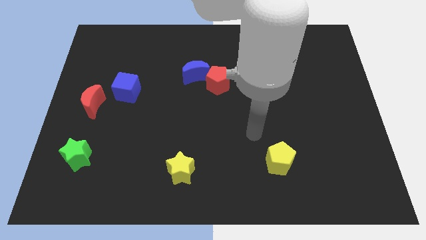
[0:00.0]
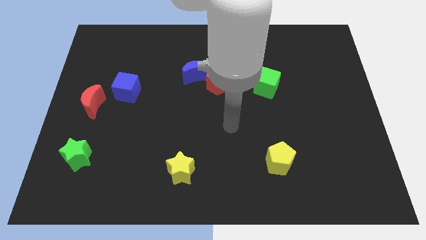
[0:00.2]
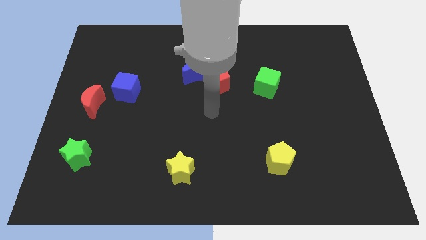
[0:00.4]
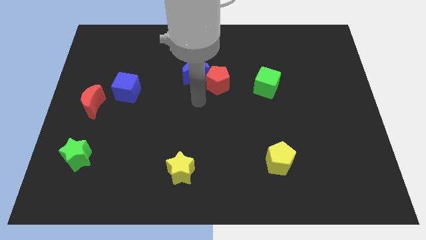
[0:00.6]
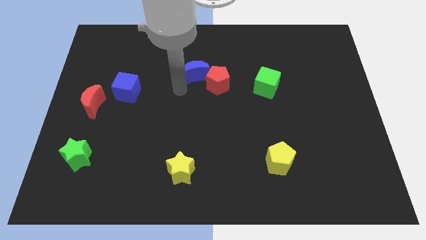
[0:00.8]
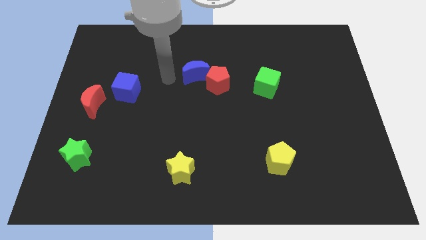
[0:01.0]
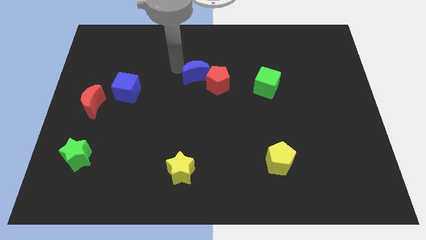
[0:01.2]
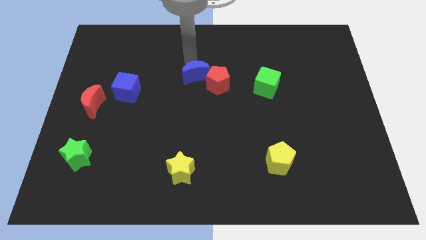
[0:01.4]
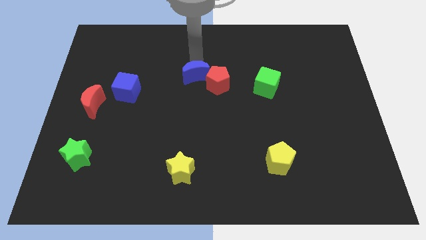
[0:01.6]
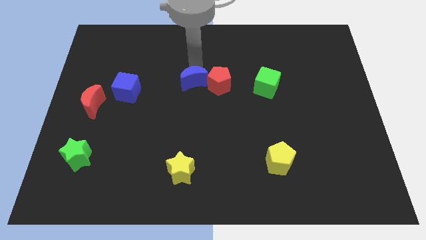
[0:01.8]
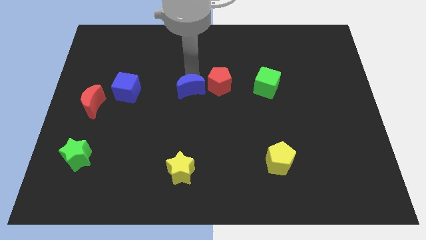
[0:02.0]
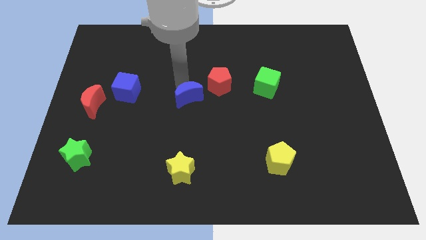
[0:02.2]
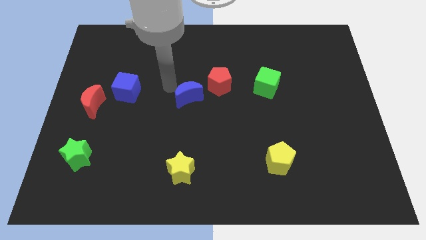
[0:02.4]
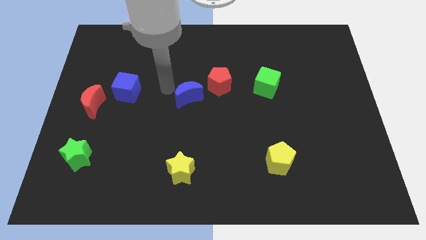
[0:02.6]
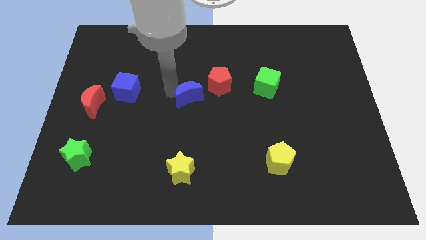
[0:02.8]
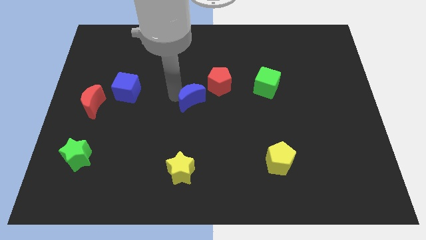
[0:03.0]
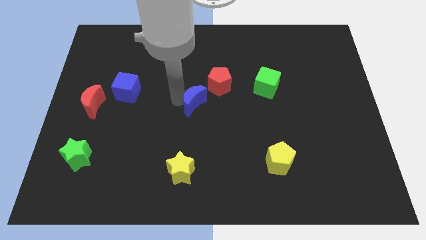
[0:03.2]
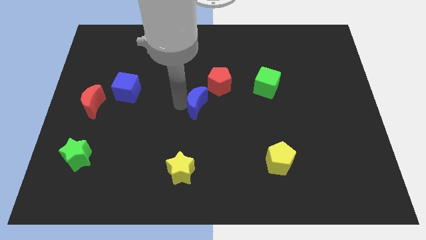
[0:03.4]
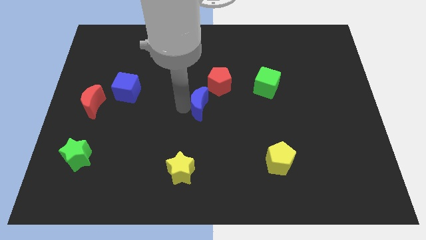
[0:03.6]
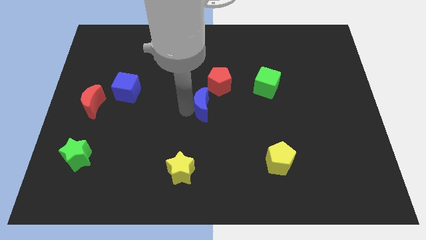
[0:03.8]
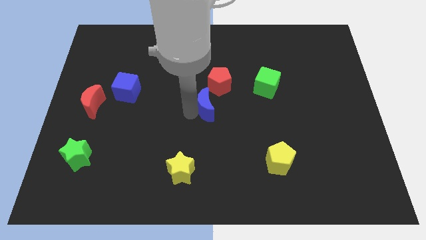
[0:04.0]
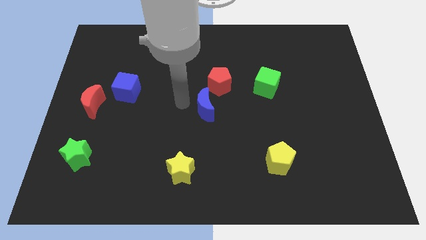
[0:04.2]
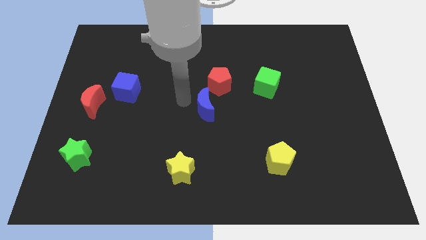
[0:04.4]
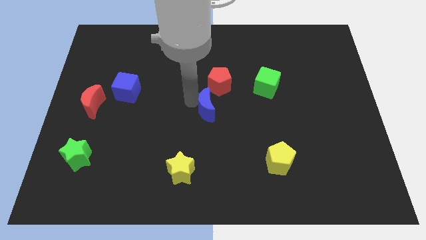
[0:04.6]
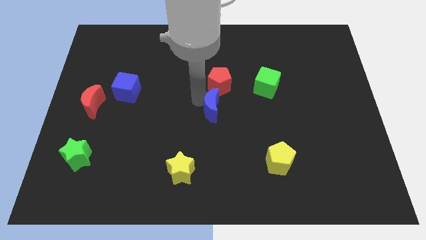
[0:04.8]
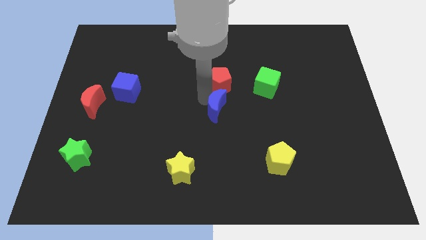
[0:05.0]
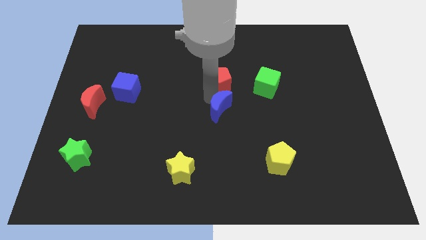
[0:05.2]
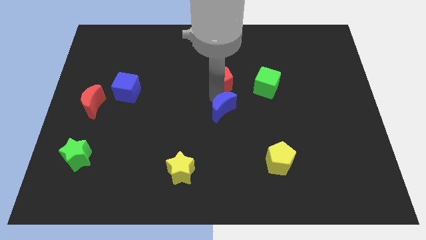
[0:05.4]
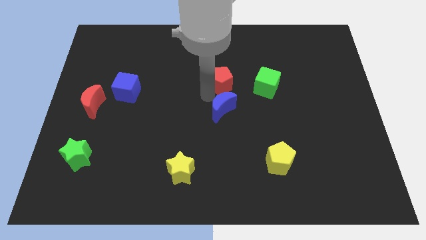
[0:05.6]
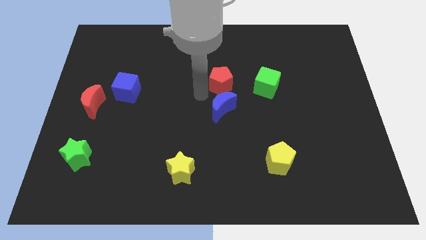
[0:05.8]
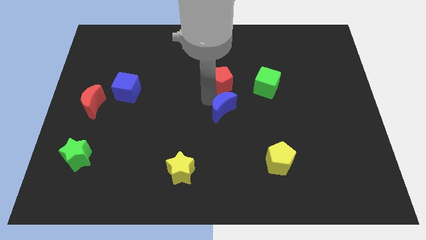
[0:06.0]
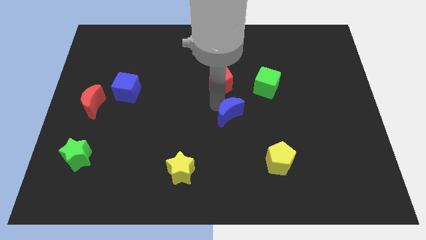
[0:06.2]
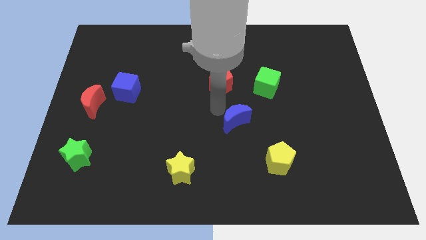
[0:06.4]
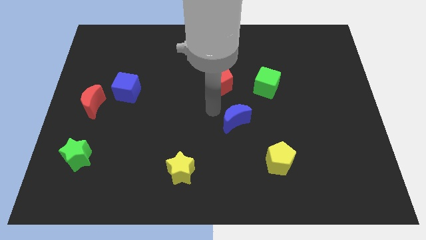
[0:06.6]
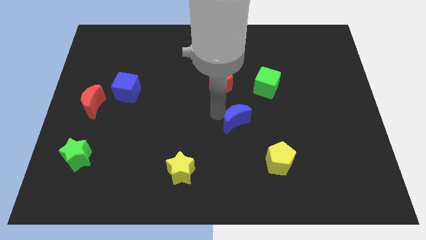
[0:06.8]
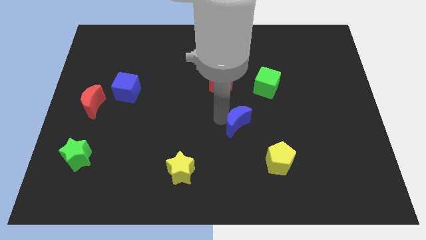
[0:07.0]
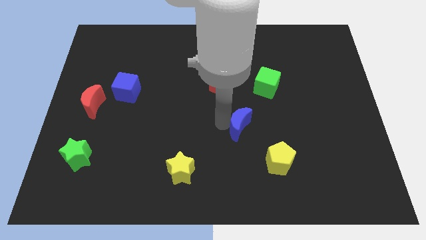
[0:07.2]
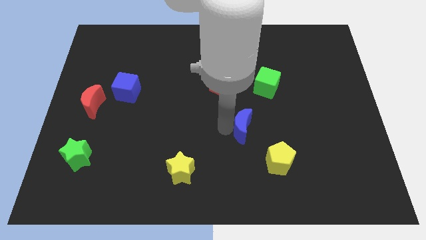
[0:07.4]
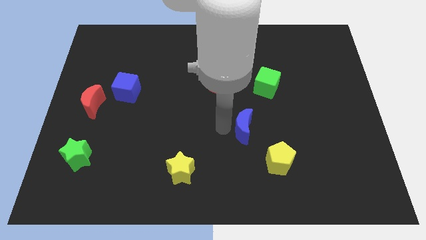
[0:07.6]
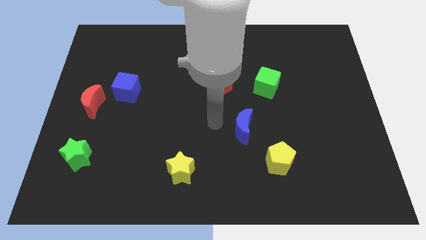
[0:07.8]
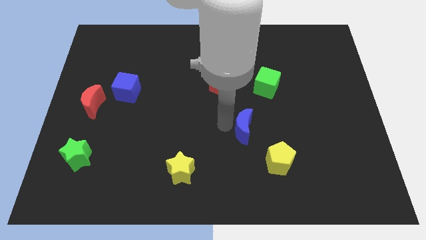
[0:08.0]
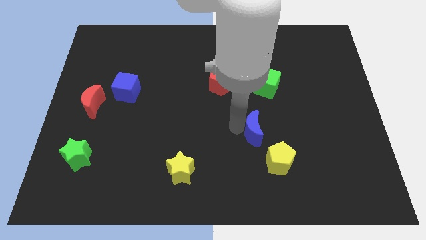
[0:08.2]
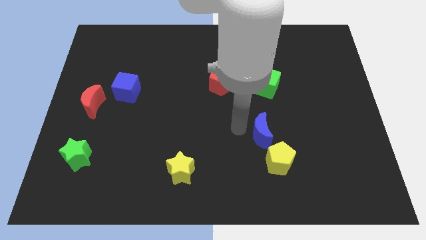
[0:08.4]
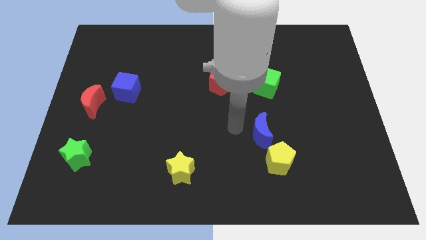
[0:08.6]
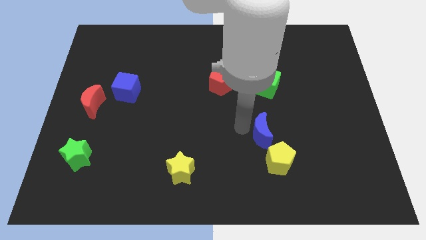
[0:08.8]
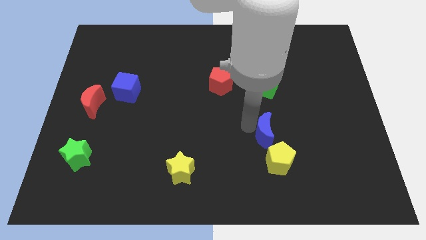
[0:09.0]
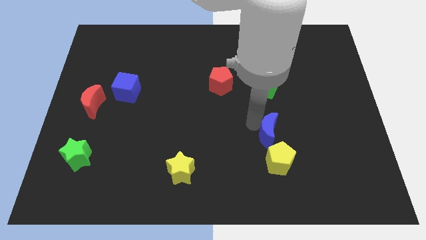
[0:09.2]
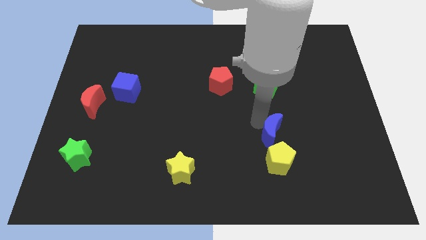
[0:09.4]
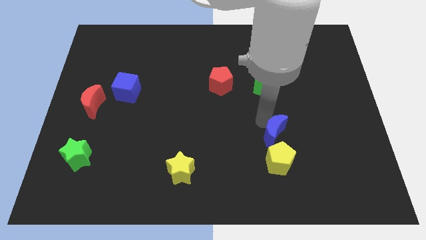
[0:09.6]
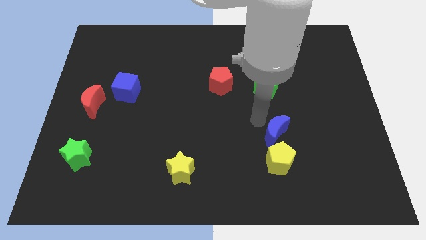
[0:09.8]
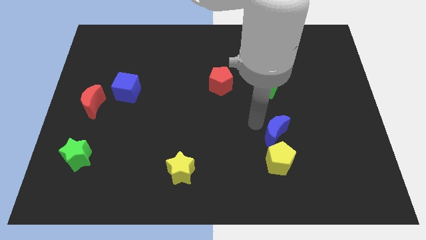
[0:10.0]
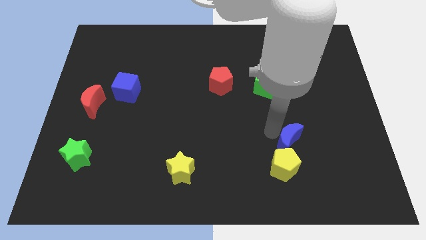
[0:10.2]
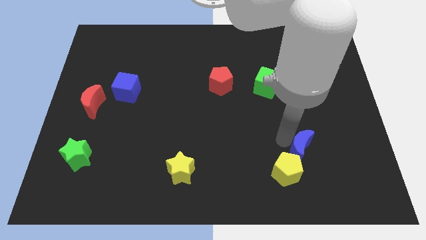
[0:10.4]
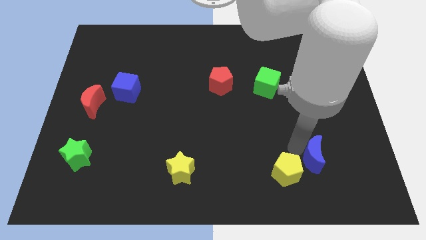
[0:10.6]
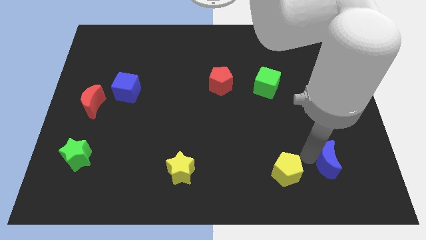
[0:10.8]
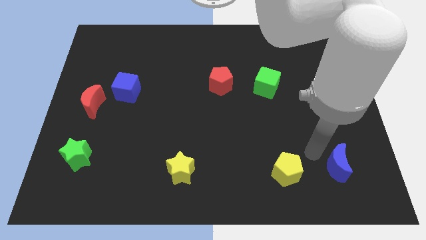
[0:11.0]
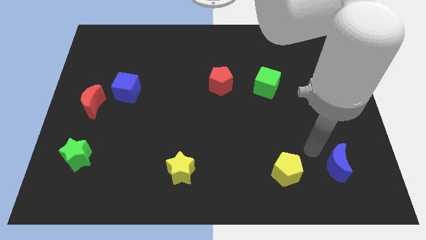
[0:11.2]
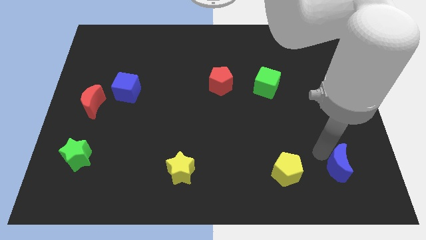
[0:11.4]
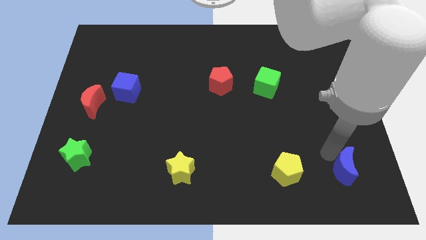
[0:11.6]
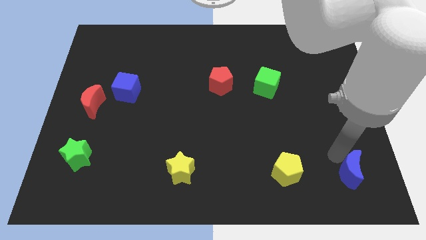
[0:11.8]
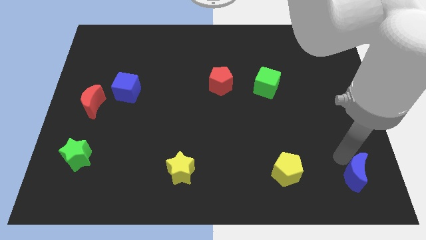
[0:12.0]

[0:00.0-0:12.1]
push the blue moon to the bottom right

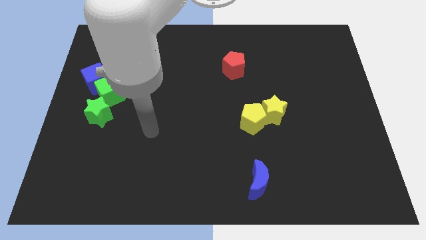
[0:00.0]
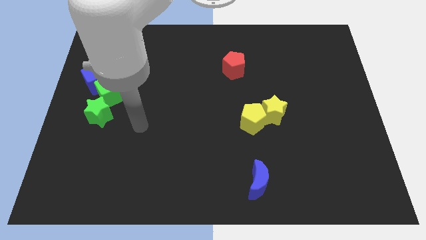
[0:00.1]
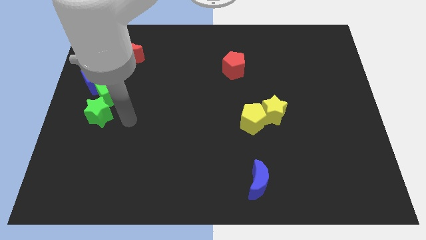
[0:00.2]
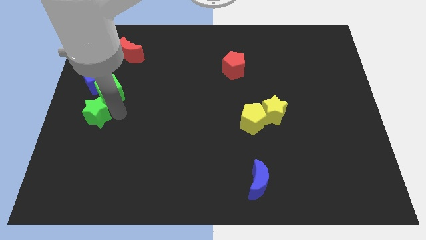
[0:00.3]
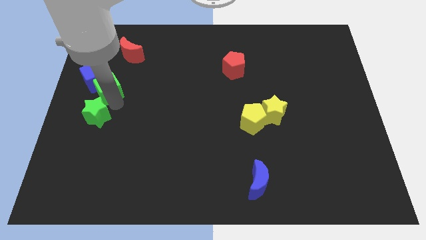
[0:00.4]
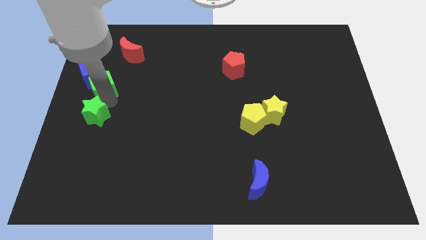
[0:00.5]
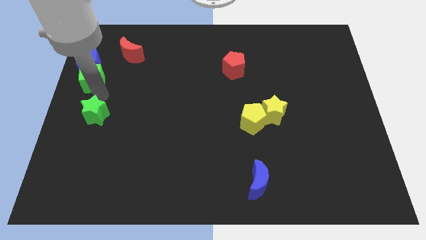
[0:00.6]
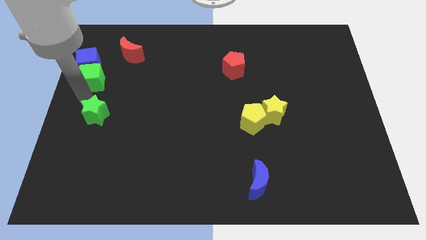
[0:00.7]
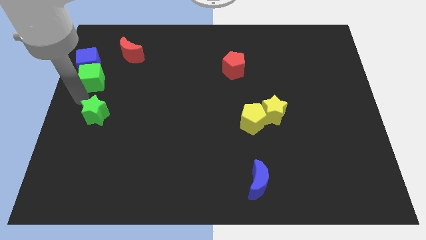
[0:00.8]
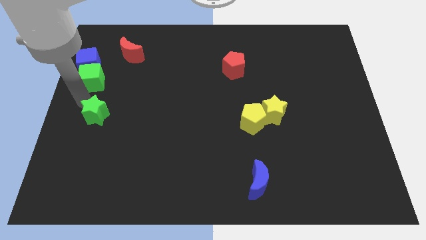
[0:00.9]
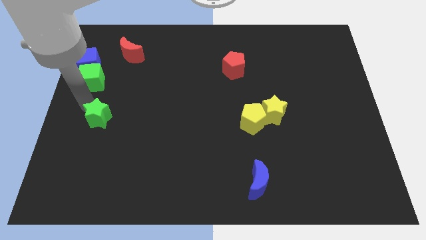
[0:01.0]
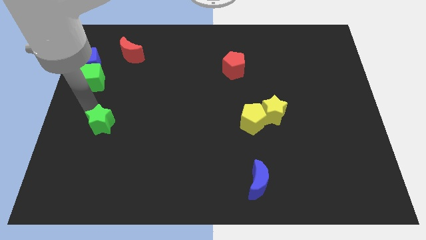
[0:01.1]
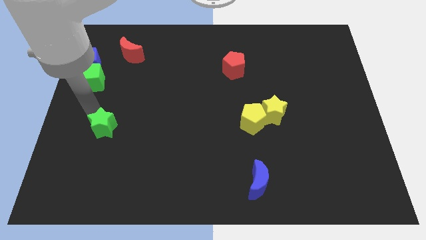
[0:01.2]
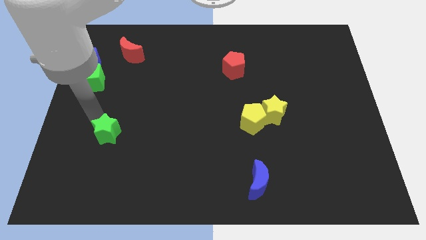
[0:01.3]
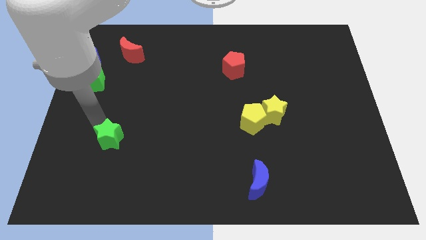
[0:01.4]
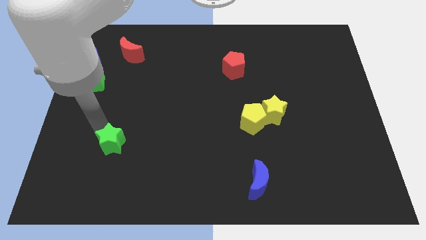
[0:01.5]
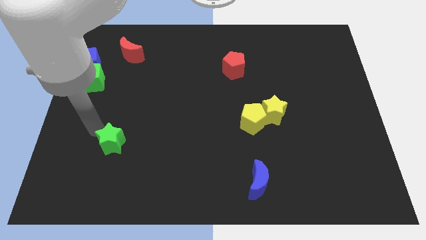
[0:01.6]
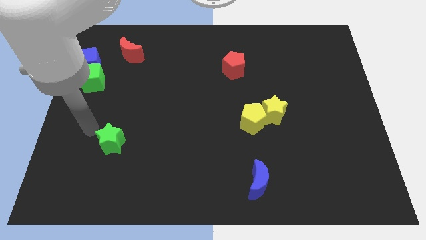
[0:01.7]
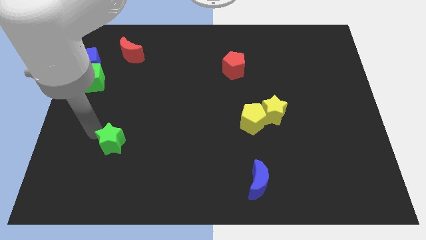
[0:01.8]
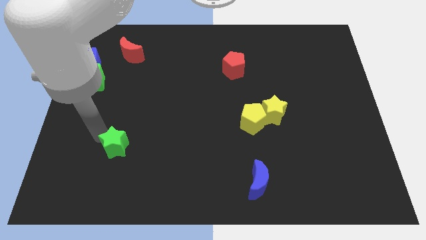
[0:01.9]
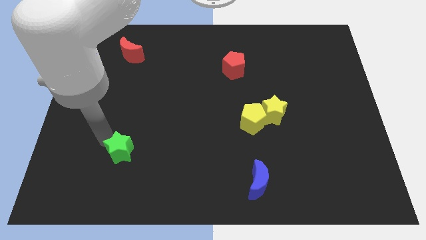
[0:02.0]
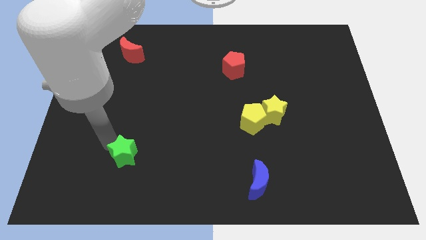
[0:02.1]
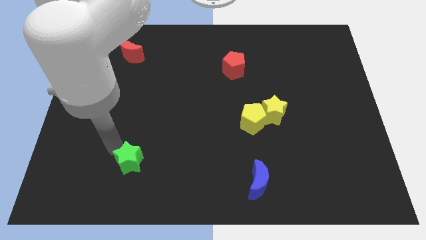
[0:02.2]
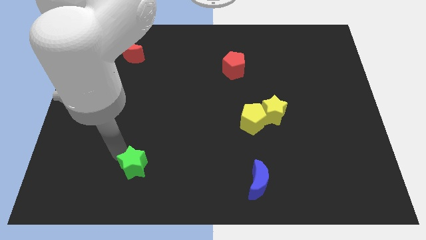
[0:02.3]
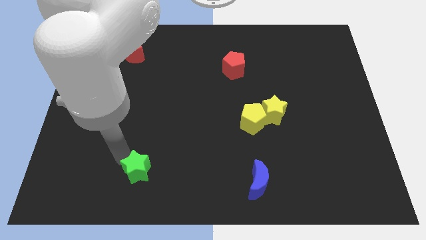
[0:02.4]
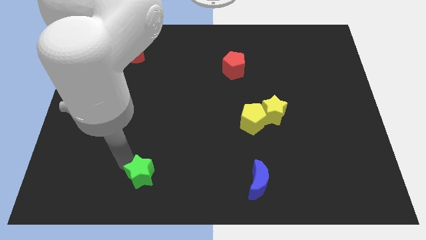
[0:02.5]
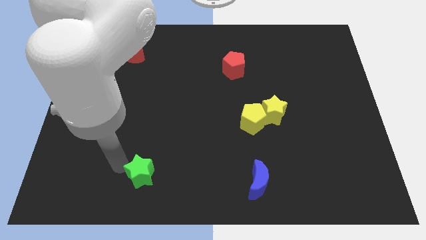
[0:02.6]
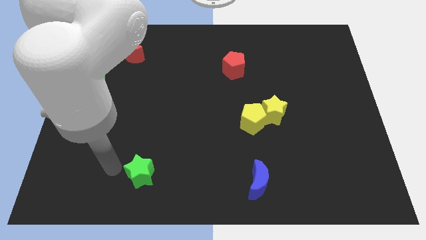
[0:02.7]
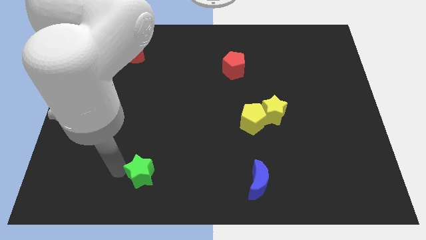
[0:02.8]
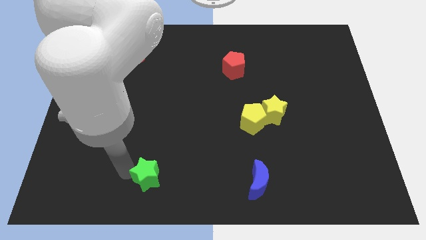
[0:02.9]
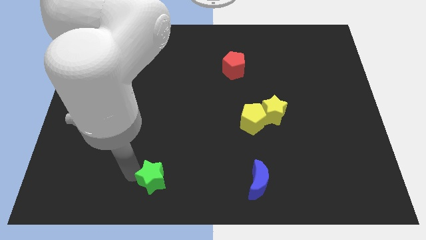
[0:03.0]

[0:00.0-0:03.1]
put the green star to the bottom
